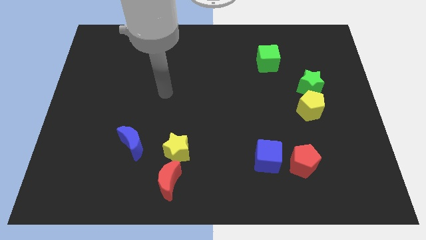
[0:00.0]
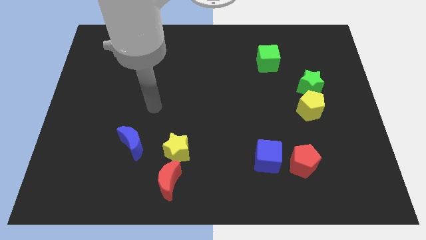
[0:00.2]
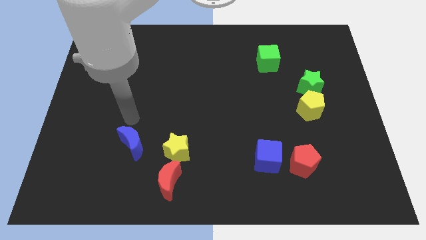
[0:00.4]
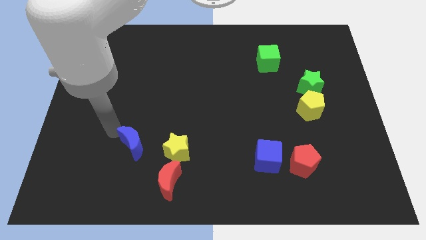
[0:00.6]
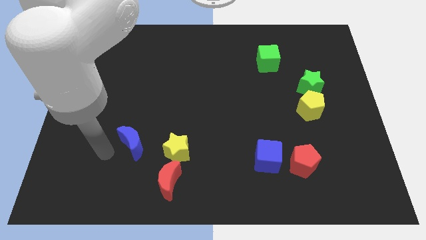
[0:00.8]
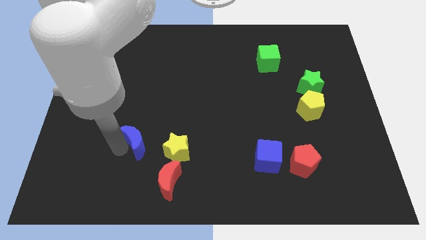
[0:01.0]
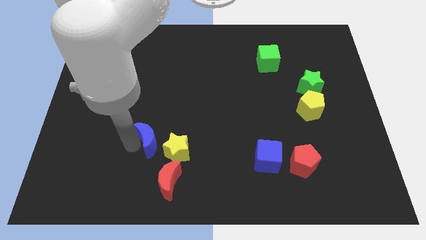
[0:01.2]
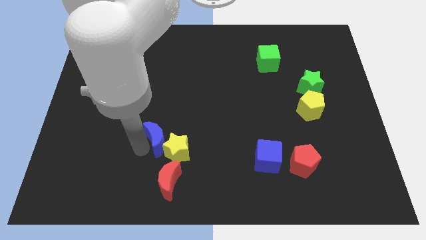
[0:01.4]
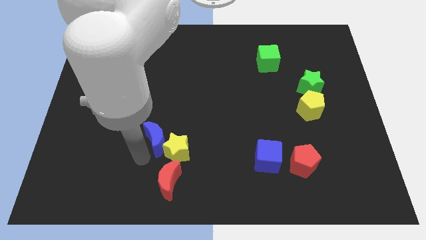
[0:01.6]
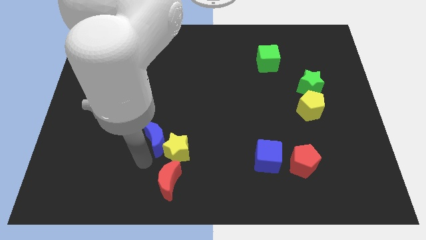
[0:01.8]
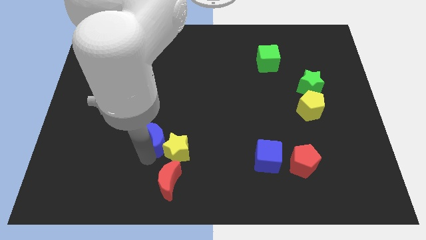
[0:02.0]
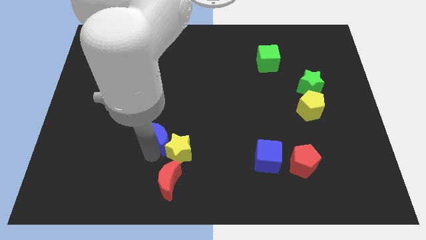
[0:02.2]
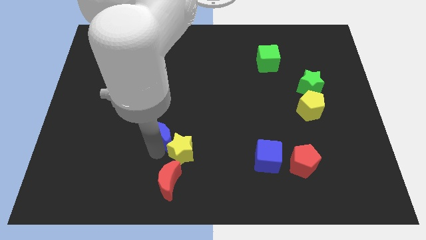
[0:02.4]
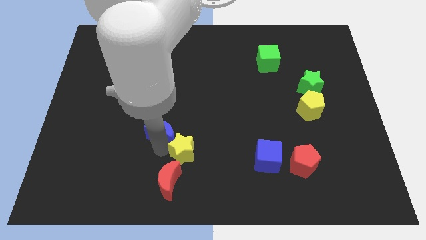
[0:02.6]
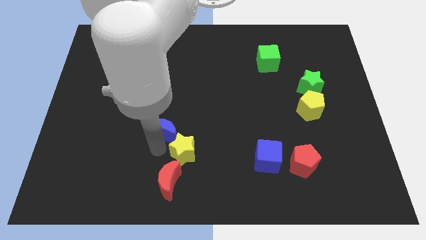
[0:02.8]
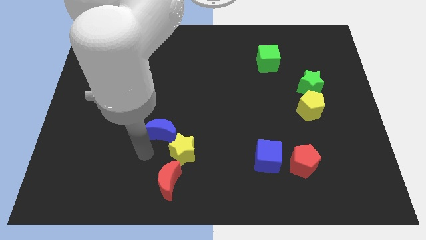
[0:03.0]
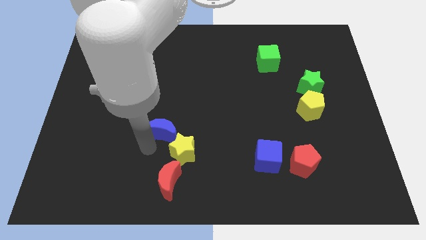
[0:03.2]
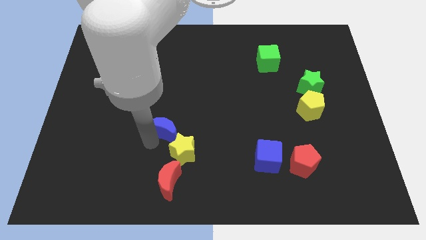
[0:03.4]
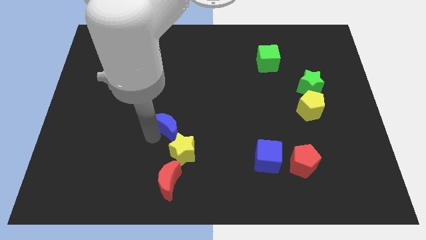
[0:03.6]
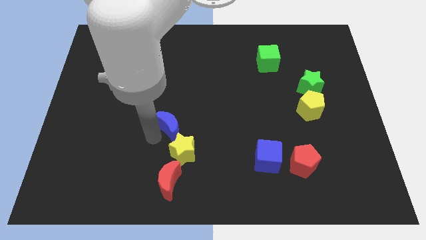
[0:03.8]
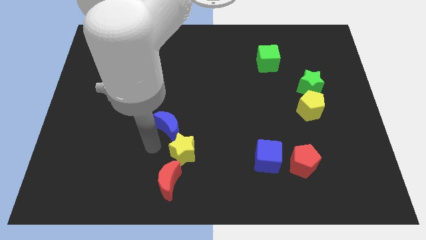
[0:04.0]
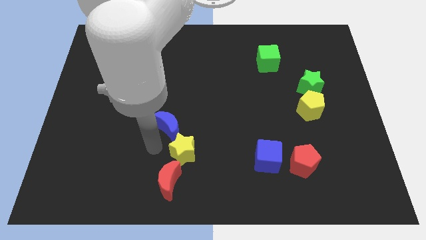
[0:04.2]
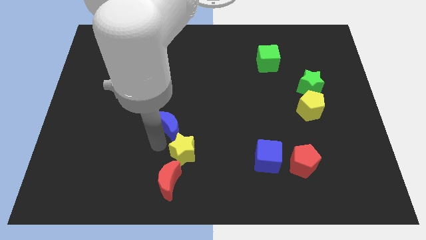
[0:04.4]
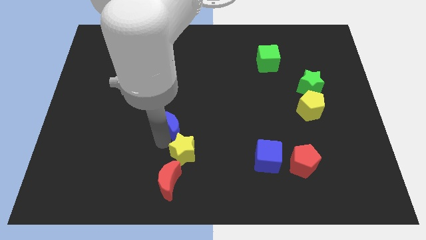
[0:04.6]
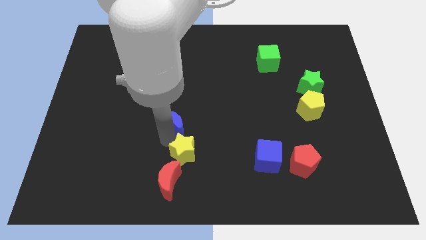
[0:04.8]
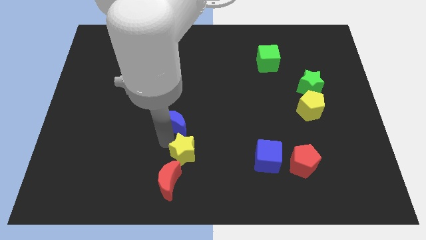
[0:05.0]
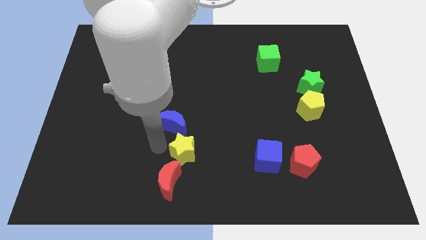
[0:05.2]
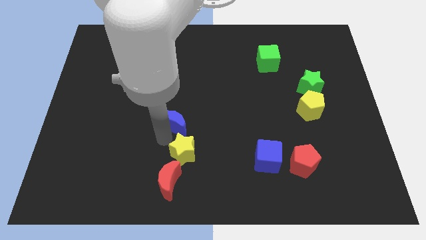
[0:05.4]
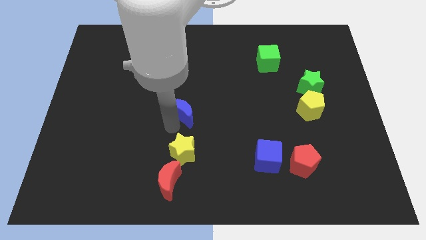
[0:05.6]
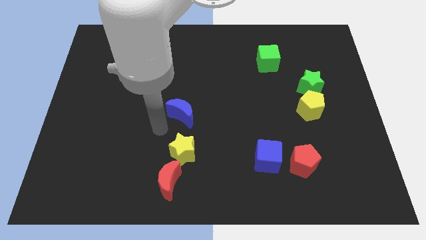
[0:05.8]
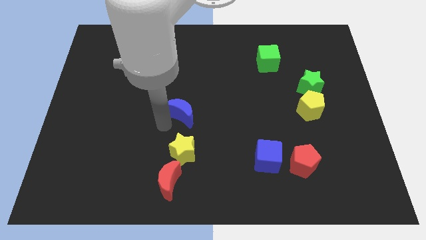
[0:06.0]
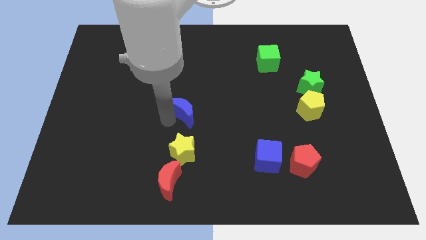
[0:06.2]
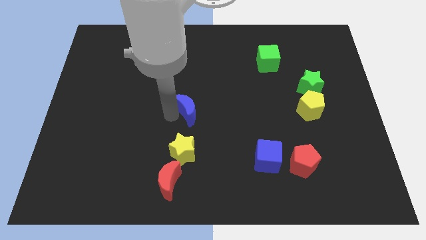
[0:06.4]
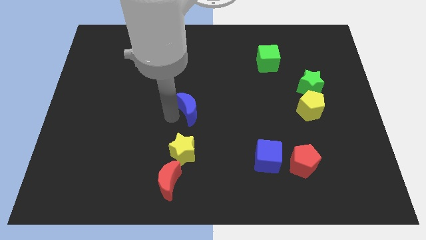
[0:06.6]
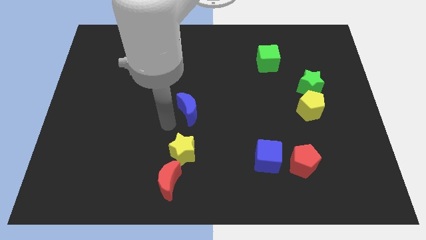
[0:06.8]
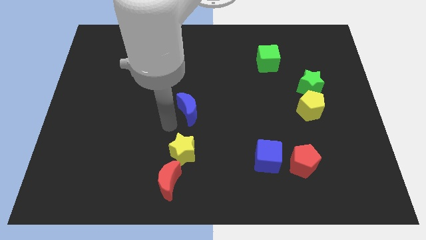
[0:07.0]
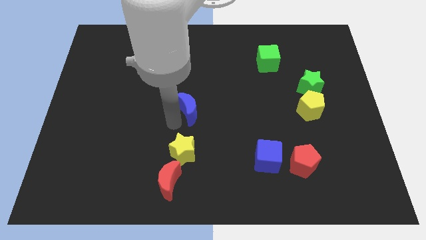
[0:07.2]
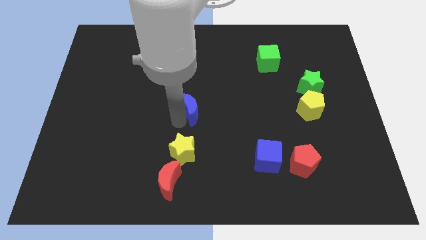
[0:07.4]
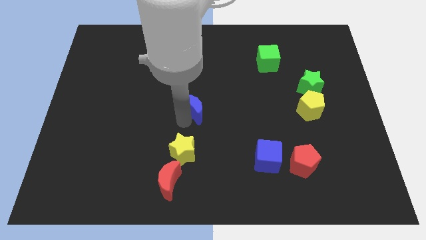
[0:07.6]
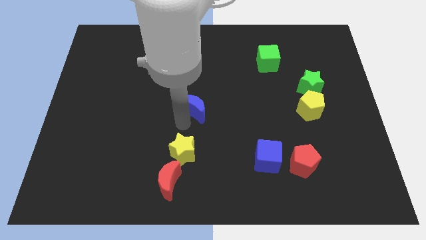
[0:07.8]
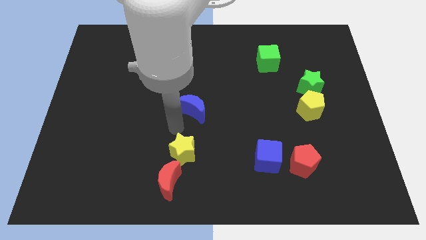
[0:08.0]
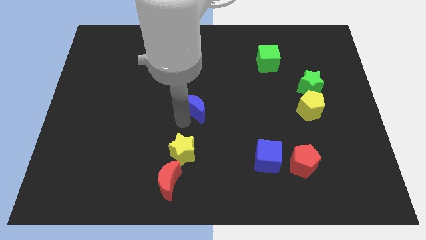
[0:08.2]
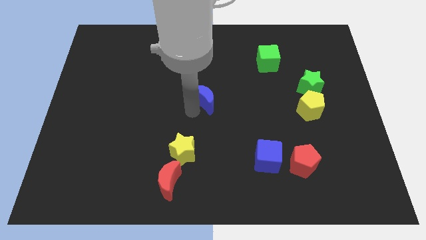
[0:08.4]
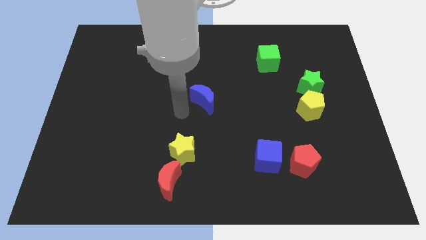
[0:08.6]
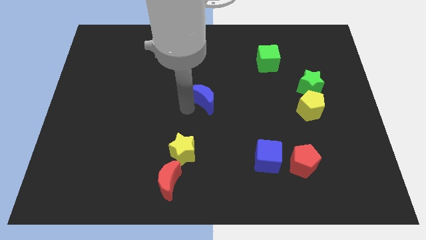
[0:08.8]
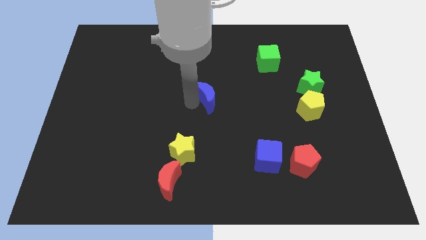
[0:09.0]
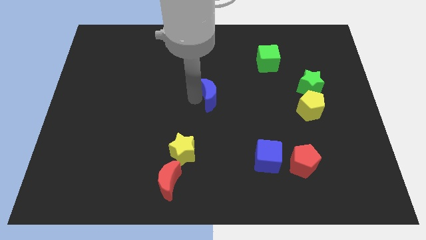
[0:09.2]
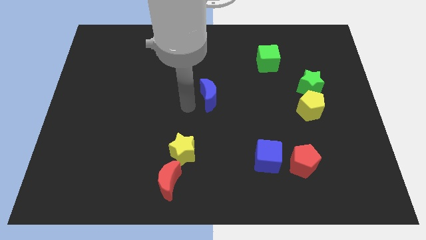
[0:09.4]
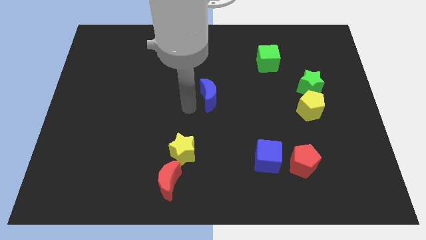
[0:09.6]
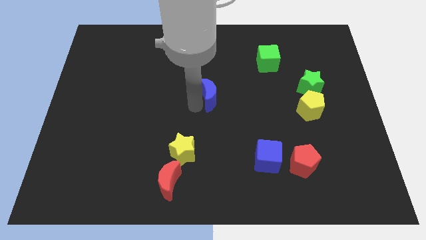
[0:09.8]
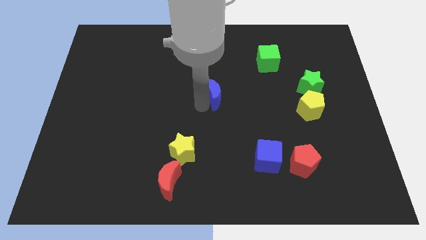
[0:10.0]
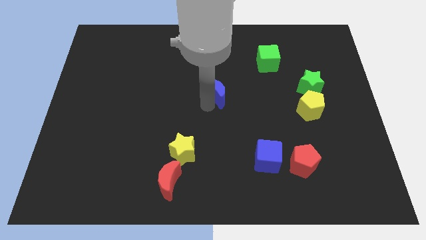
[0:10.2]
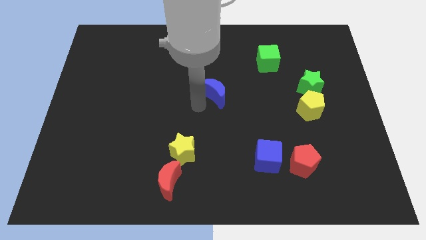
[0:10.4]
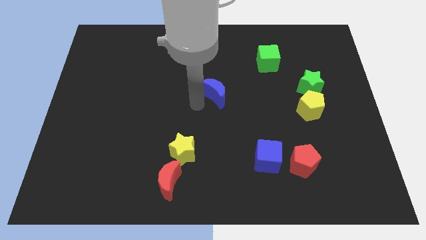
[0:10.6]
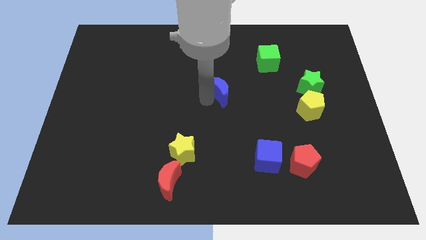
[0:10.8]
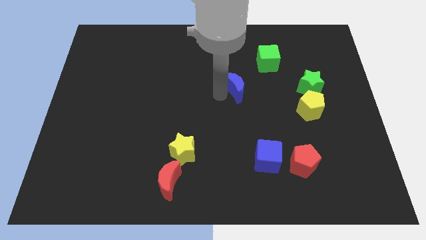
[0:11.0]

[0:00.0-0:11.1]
put the blue moon diagonally down and to the left of the green cube

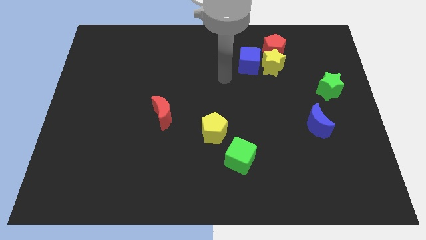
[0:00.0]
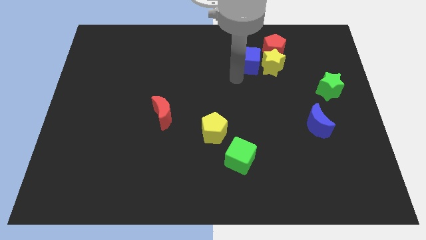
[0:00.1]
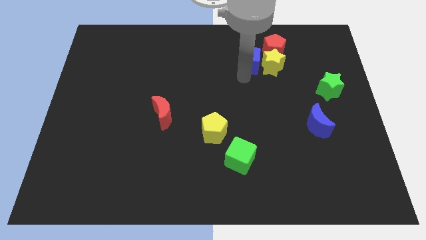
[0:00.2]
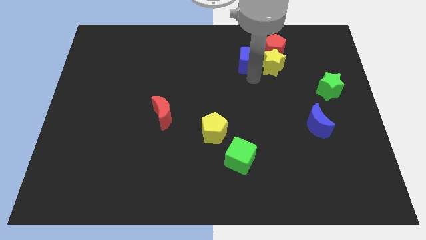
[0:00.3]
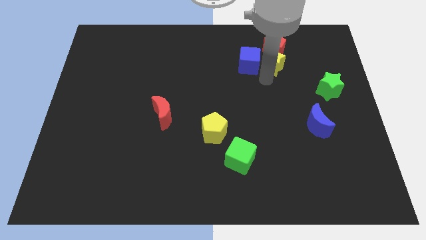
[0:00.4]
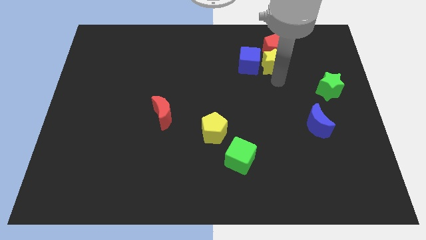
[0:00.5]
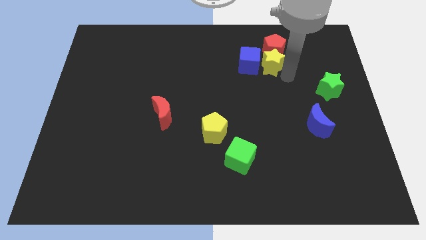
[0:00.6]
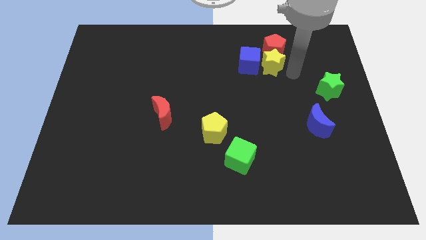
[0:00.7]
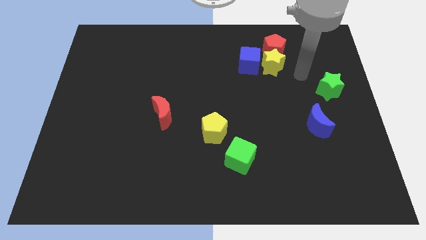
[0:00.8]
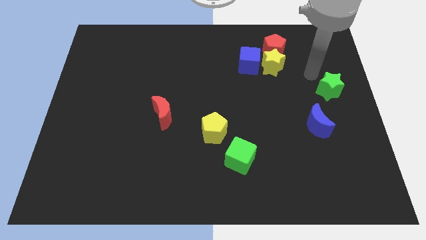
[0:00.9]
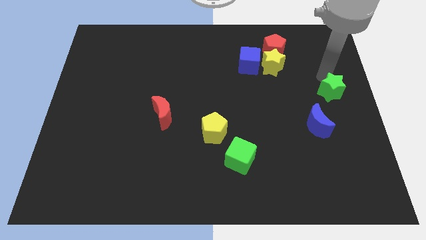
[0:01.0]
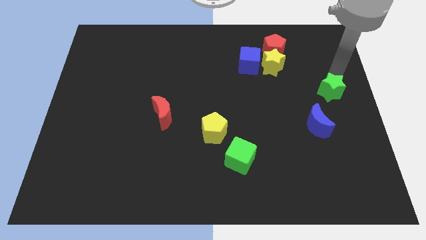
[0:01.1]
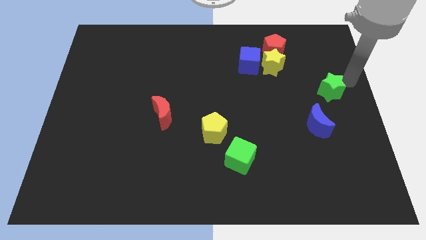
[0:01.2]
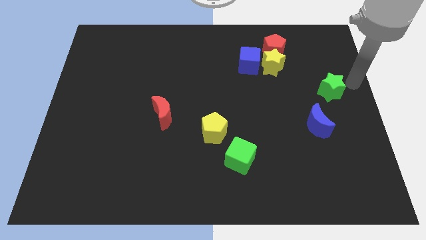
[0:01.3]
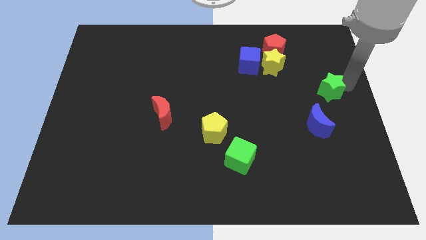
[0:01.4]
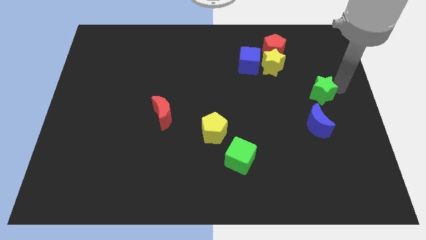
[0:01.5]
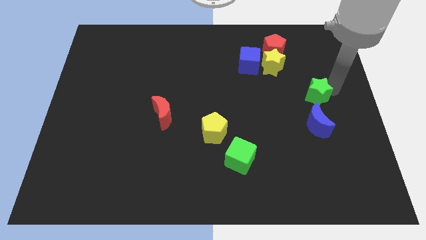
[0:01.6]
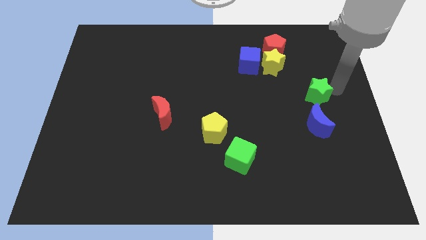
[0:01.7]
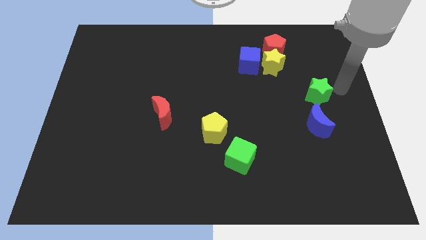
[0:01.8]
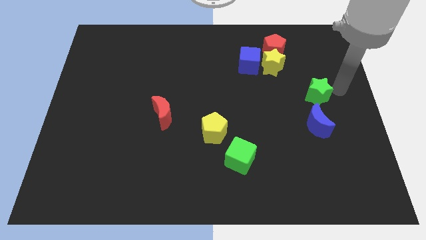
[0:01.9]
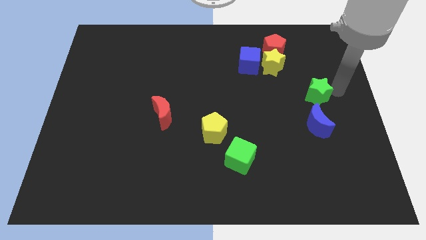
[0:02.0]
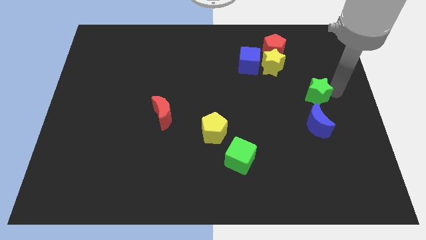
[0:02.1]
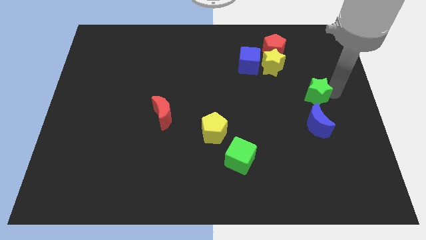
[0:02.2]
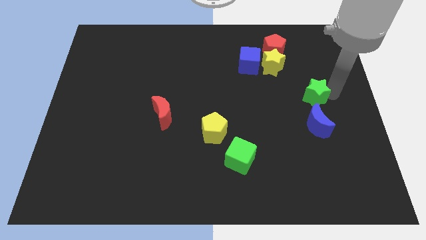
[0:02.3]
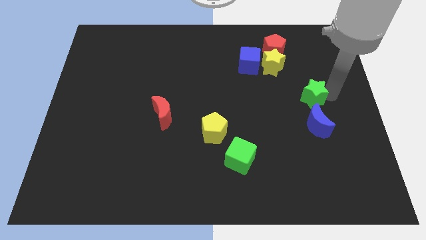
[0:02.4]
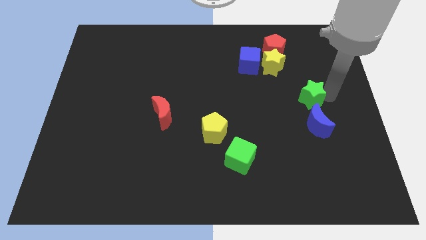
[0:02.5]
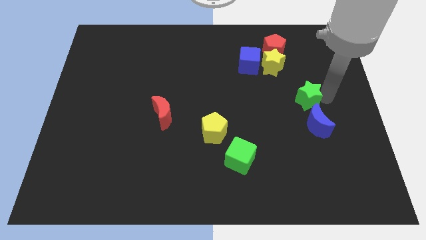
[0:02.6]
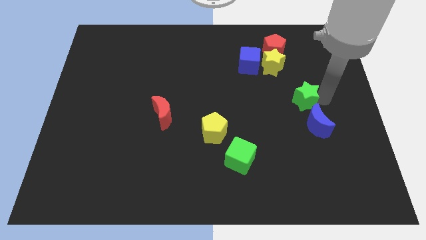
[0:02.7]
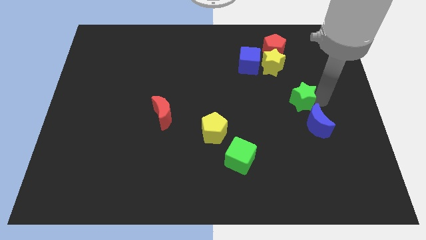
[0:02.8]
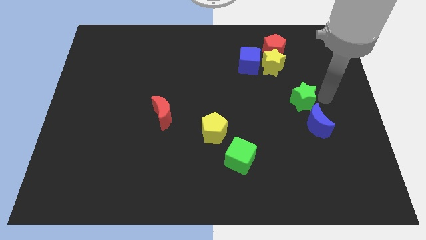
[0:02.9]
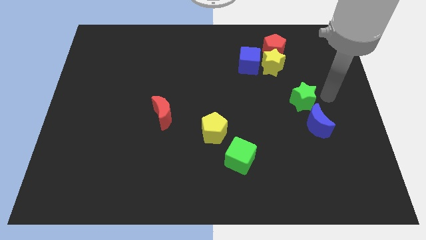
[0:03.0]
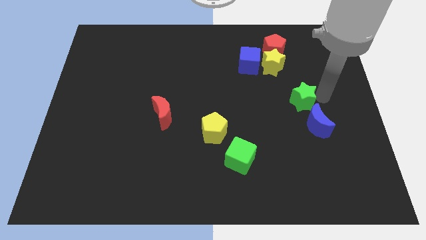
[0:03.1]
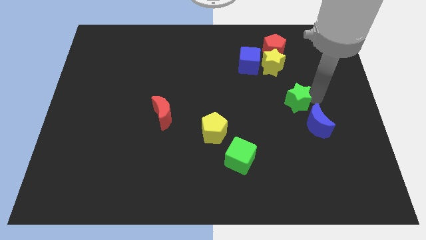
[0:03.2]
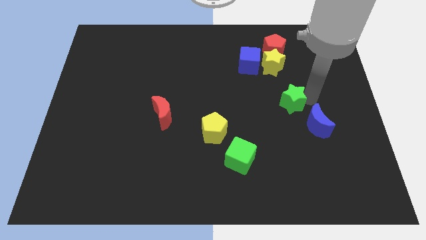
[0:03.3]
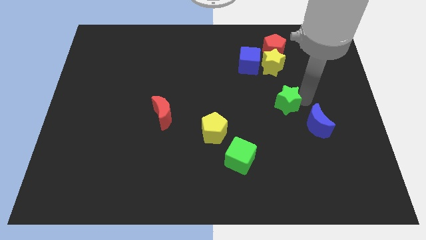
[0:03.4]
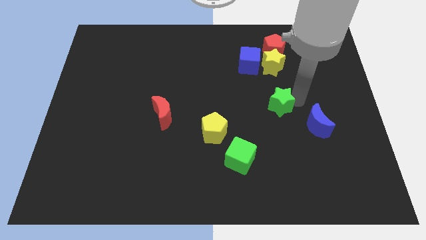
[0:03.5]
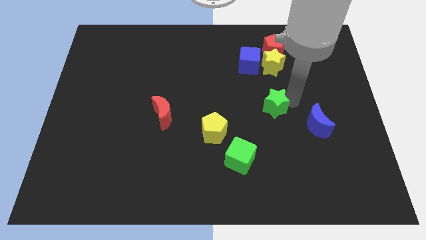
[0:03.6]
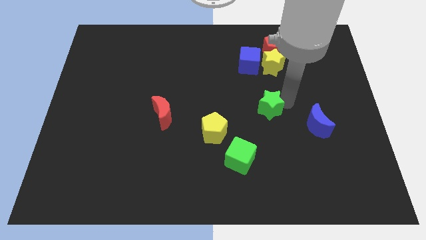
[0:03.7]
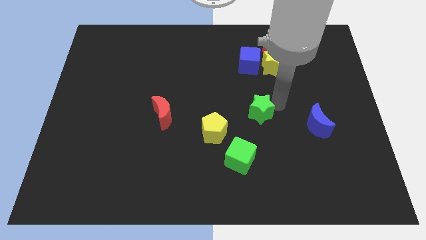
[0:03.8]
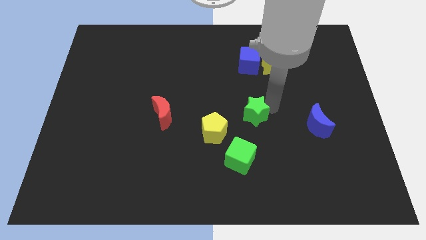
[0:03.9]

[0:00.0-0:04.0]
move the green star to the top side of the green cube
